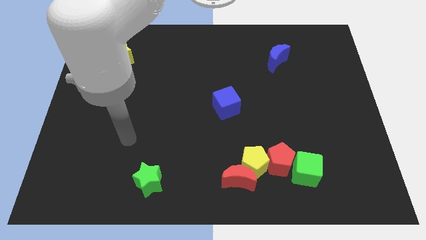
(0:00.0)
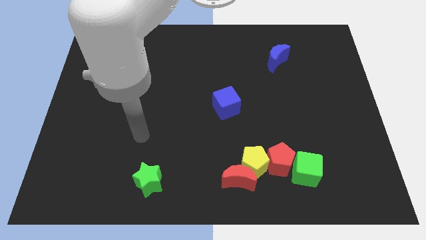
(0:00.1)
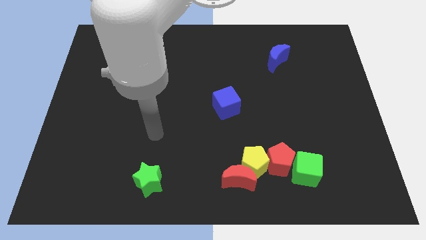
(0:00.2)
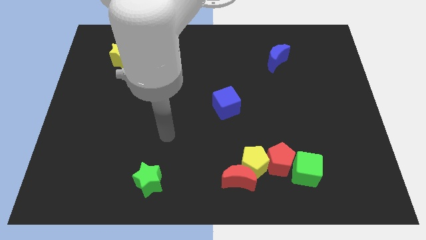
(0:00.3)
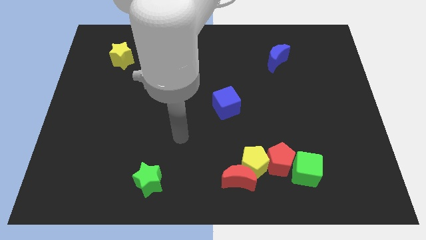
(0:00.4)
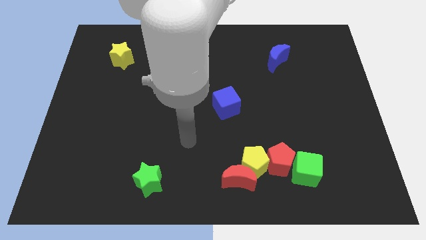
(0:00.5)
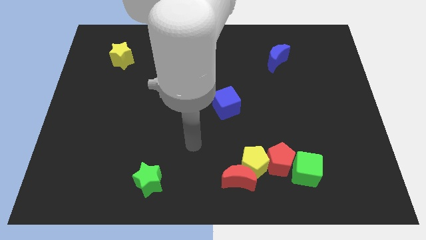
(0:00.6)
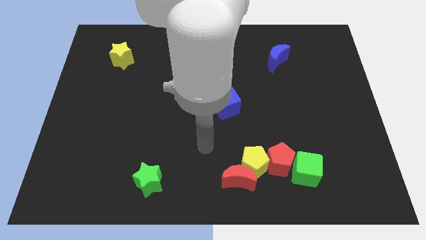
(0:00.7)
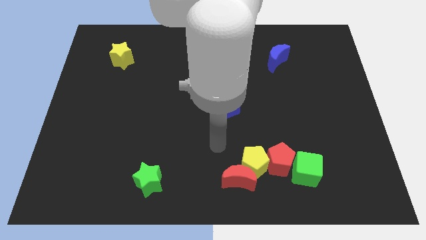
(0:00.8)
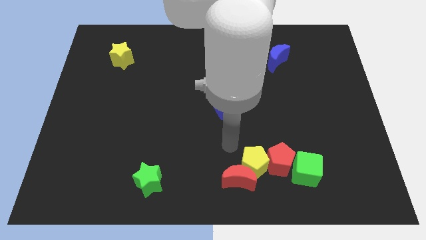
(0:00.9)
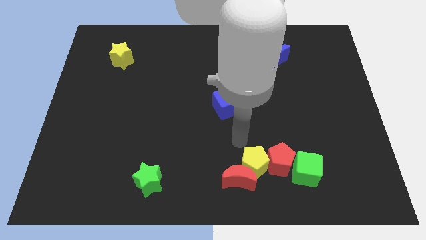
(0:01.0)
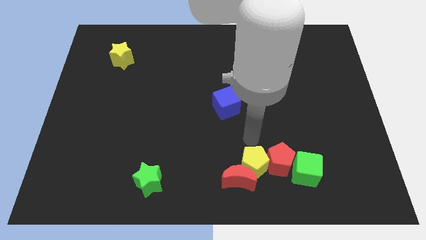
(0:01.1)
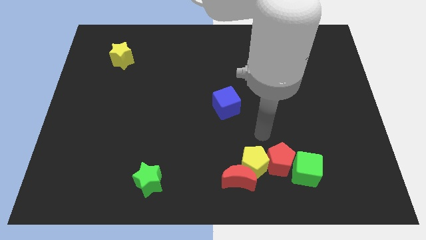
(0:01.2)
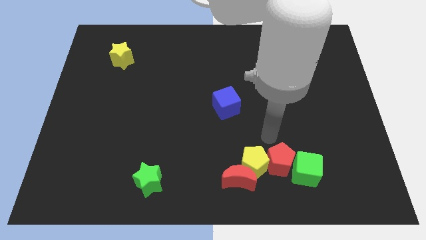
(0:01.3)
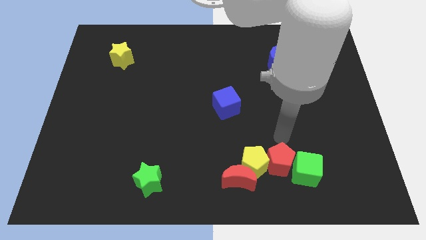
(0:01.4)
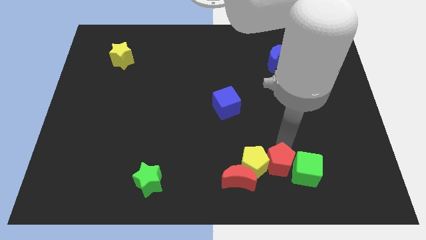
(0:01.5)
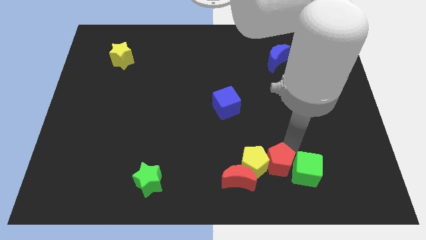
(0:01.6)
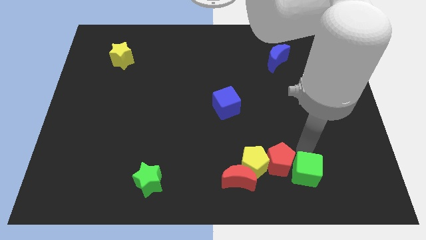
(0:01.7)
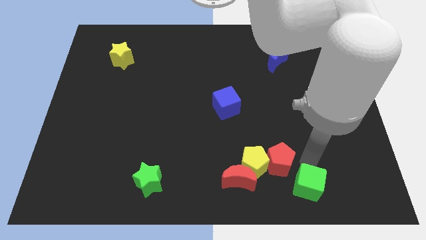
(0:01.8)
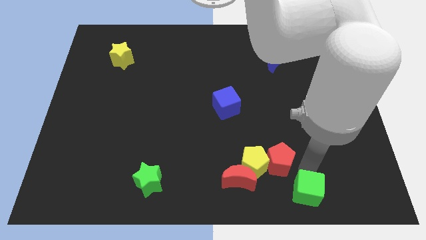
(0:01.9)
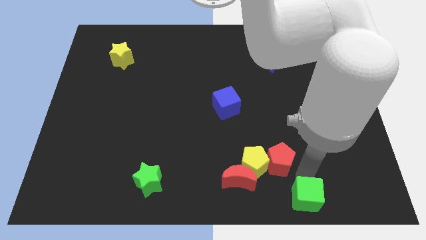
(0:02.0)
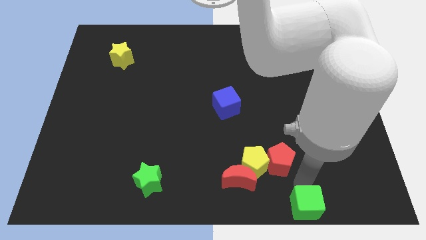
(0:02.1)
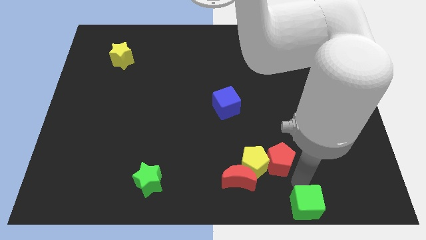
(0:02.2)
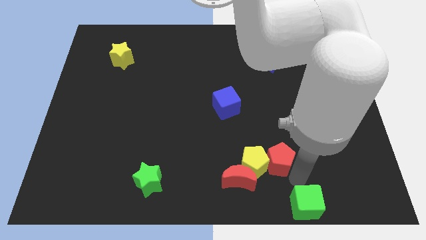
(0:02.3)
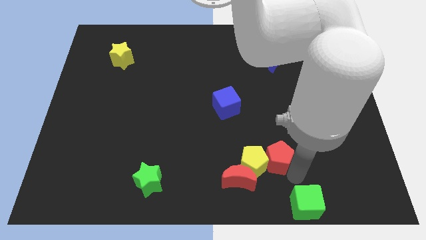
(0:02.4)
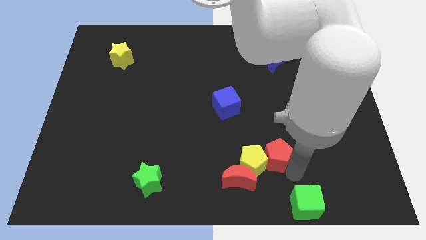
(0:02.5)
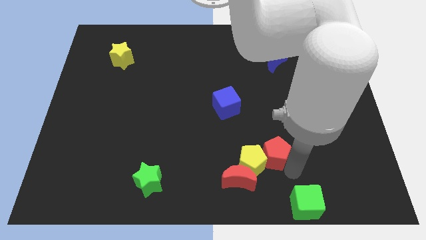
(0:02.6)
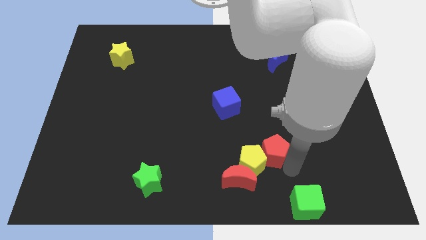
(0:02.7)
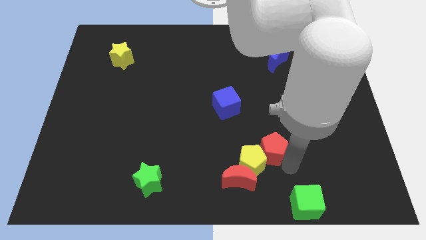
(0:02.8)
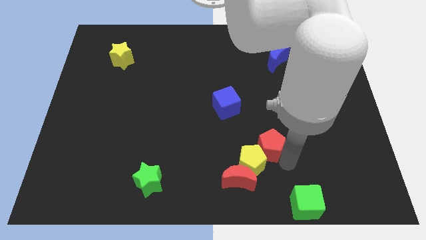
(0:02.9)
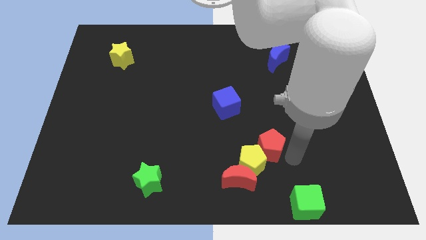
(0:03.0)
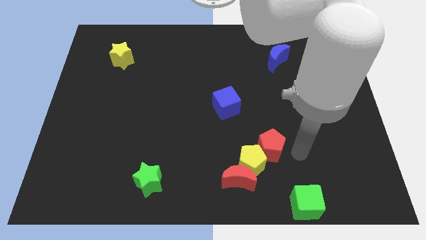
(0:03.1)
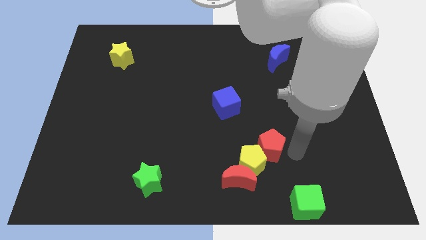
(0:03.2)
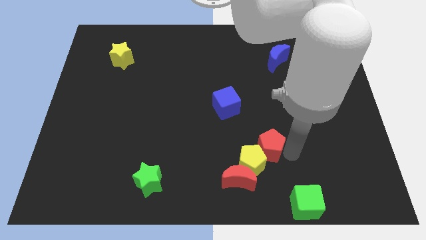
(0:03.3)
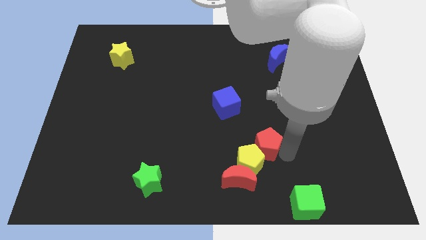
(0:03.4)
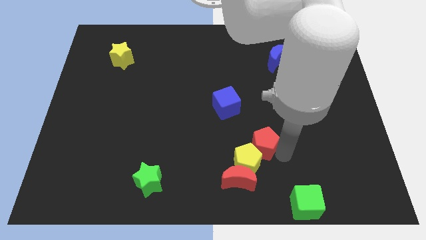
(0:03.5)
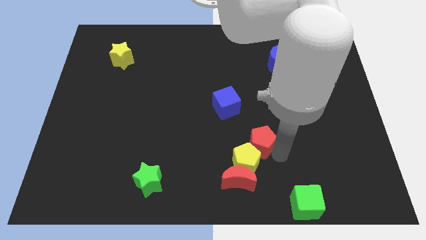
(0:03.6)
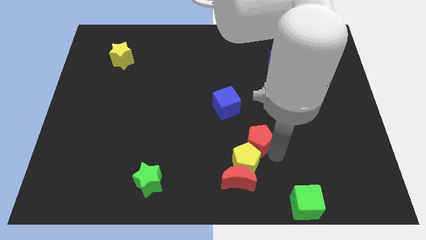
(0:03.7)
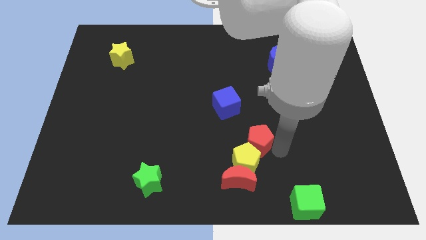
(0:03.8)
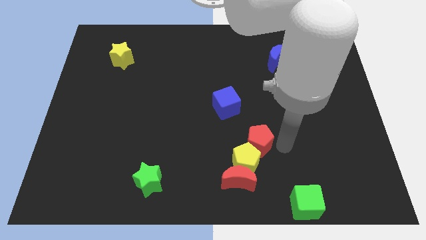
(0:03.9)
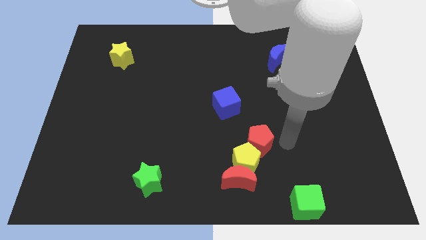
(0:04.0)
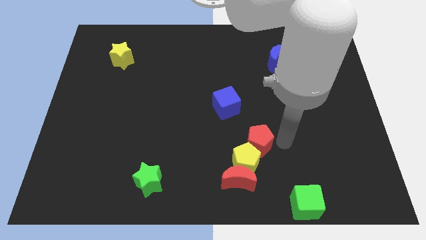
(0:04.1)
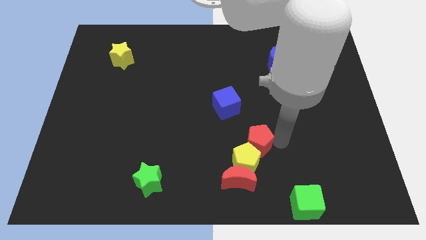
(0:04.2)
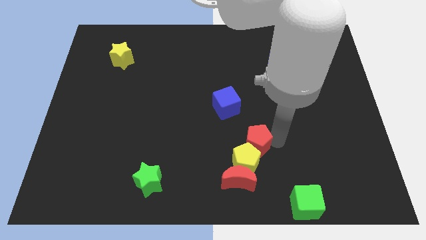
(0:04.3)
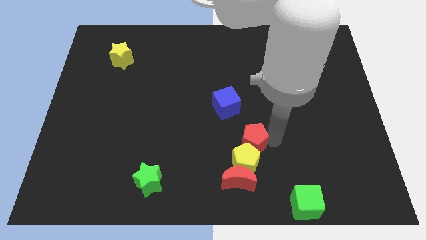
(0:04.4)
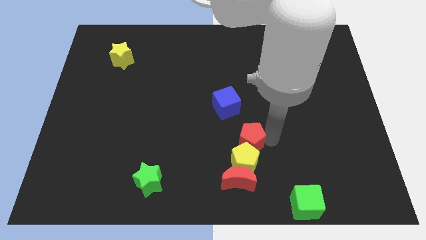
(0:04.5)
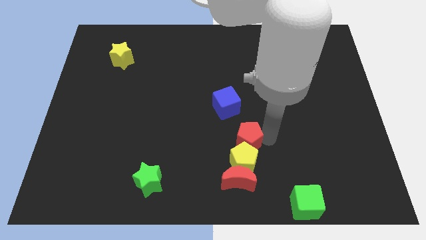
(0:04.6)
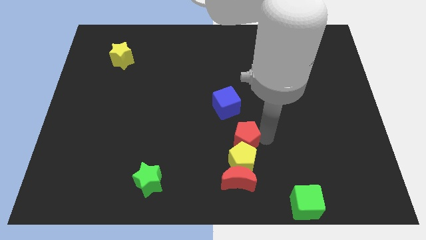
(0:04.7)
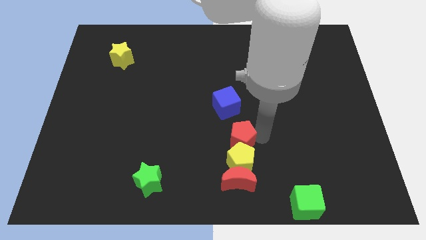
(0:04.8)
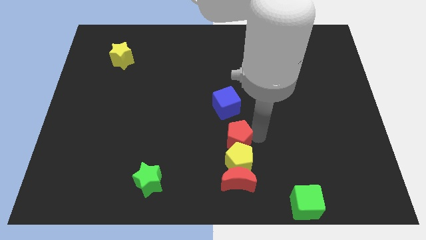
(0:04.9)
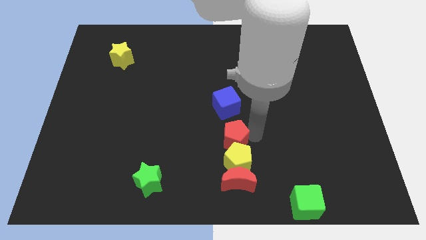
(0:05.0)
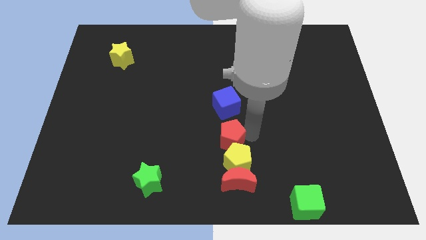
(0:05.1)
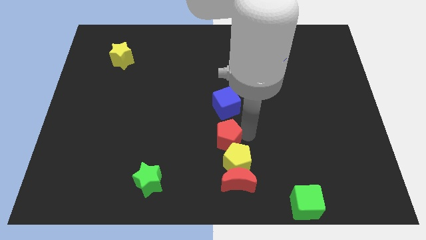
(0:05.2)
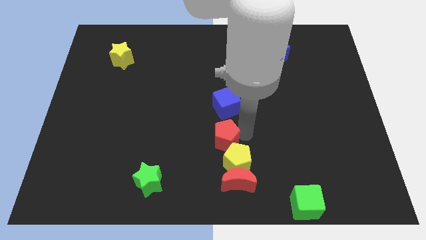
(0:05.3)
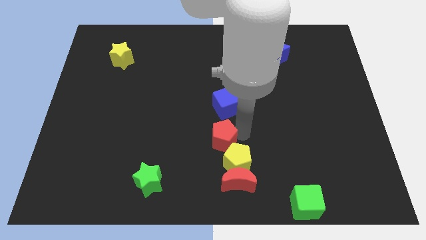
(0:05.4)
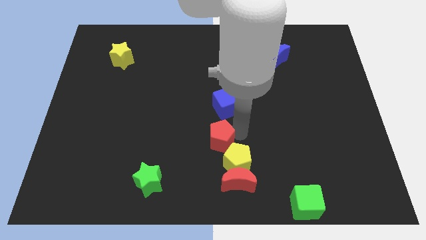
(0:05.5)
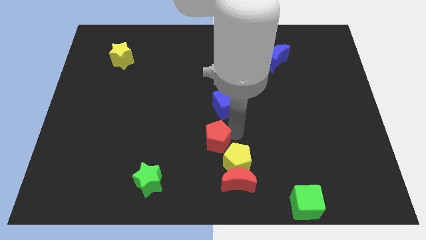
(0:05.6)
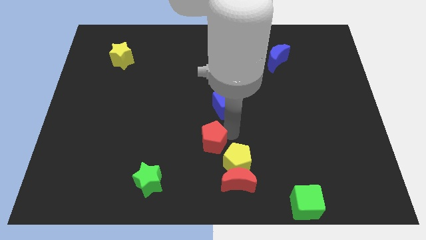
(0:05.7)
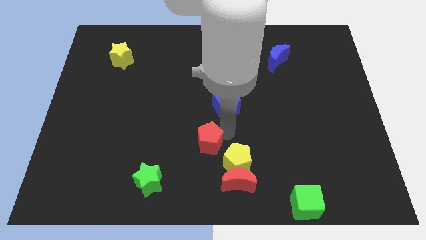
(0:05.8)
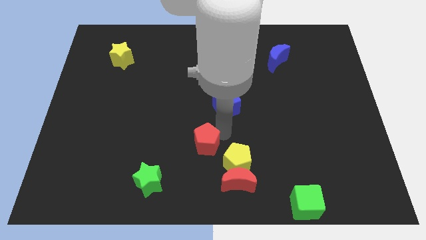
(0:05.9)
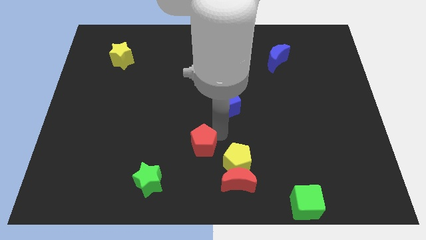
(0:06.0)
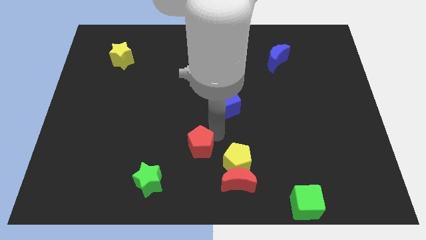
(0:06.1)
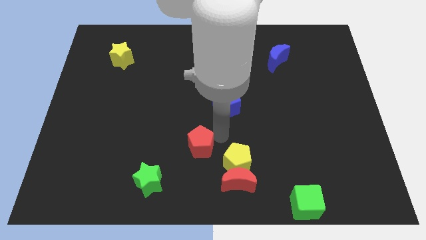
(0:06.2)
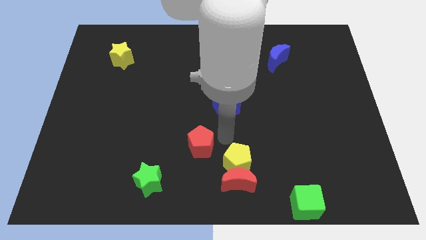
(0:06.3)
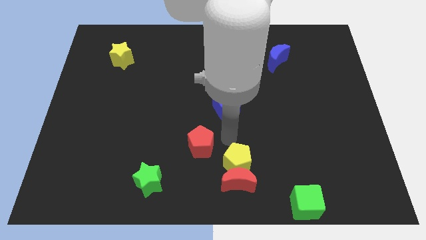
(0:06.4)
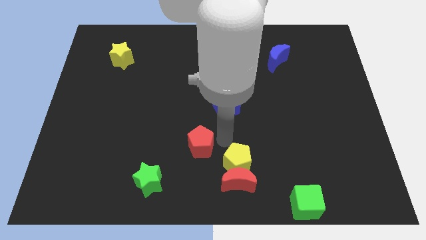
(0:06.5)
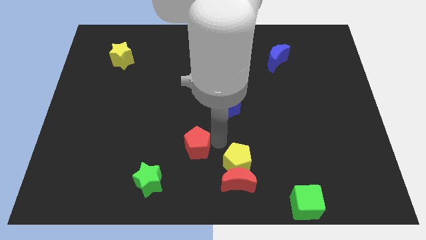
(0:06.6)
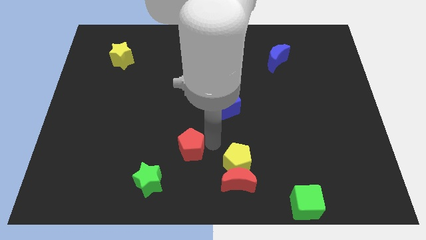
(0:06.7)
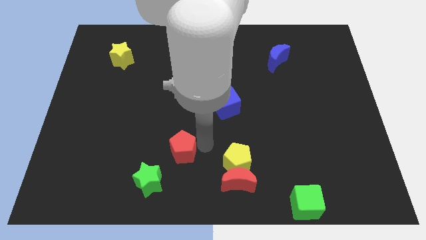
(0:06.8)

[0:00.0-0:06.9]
move the red pentagon left

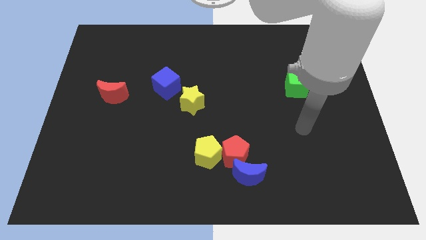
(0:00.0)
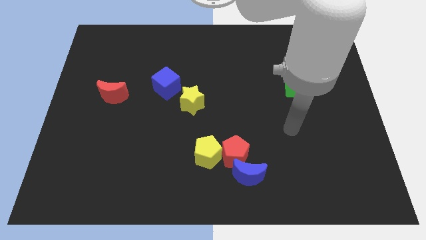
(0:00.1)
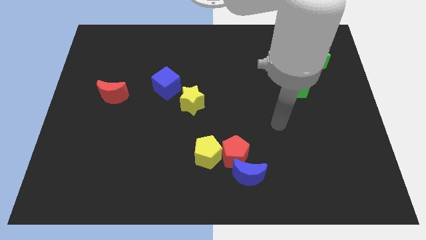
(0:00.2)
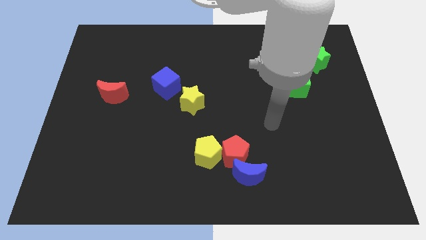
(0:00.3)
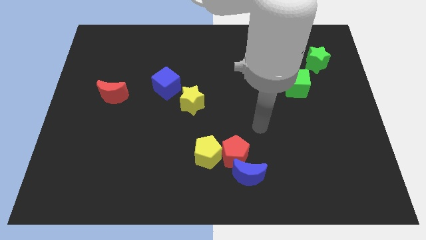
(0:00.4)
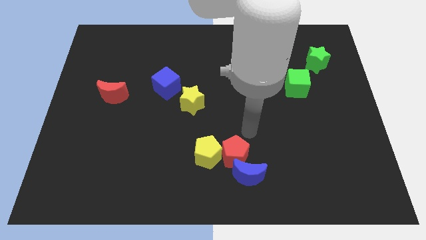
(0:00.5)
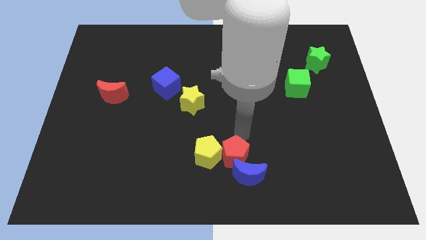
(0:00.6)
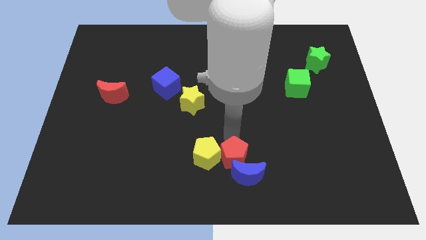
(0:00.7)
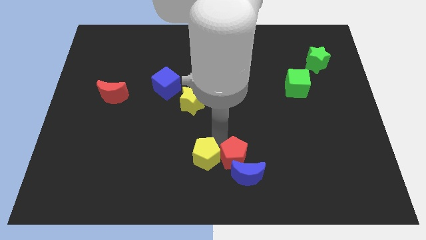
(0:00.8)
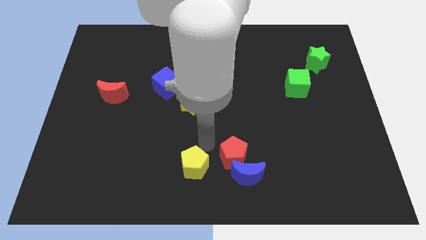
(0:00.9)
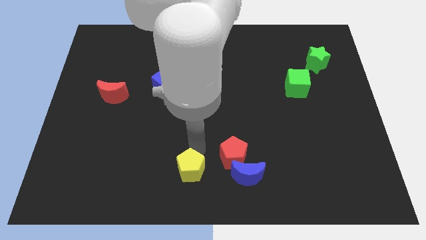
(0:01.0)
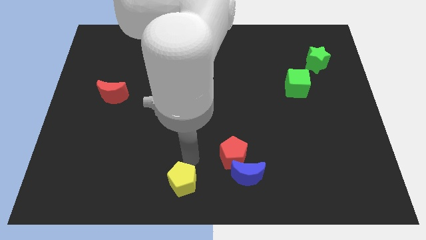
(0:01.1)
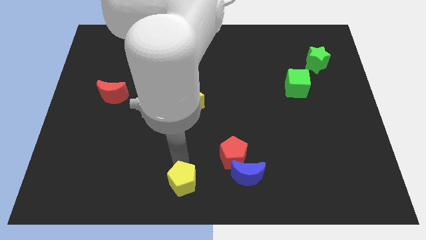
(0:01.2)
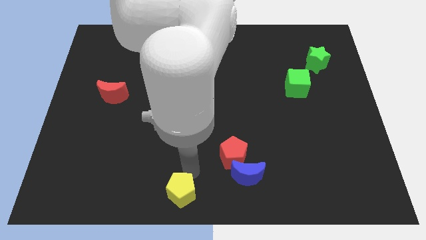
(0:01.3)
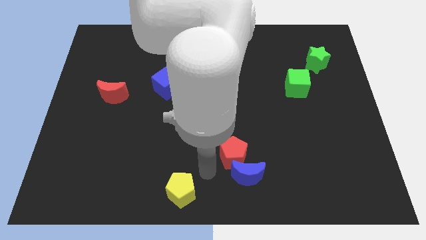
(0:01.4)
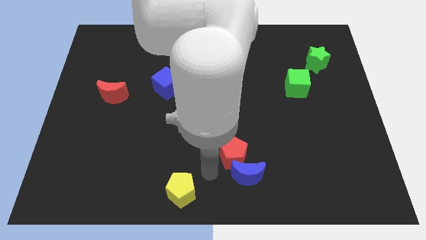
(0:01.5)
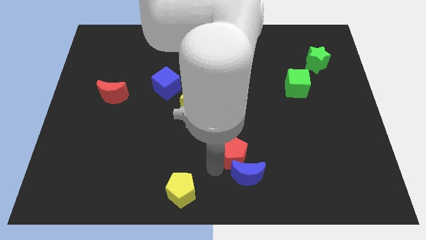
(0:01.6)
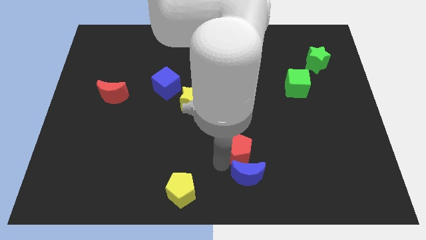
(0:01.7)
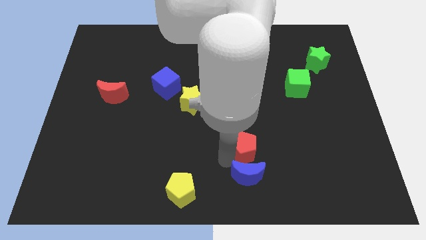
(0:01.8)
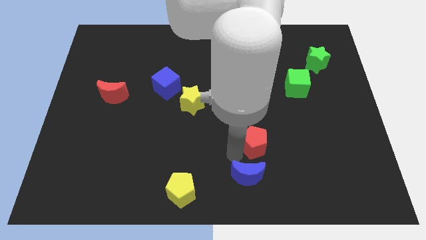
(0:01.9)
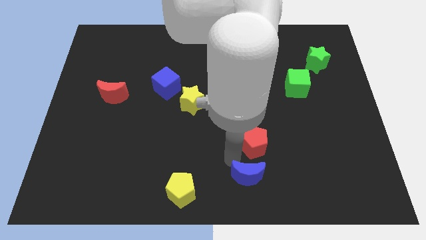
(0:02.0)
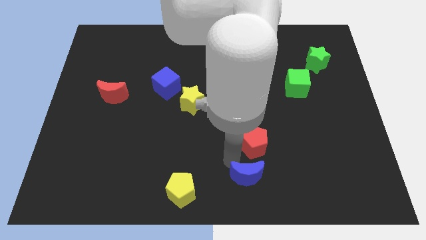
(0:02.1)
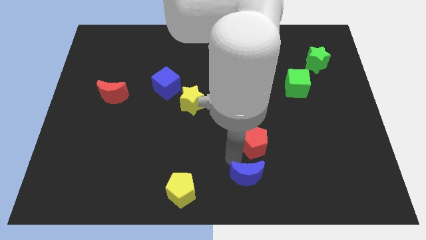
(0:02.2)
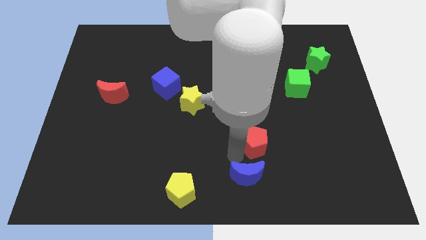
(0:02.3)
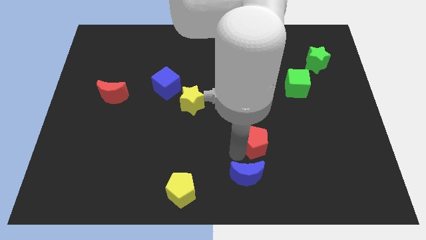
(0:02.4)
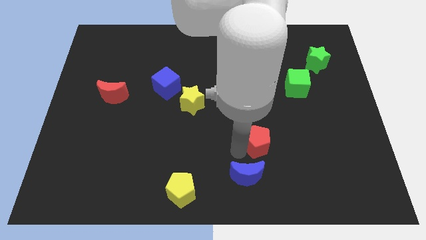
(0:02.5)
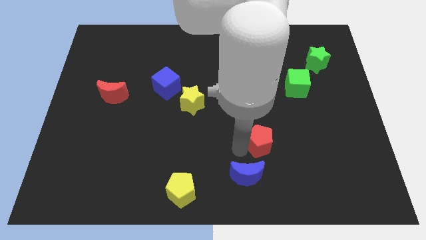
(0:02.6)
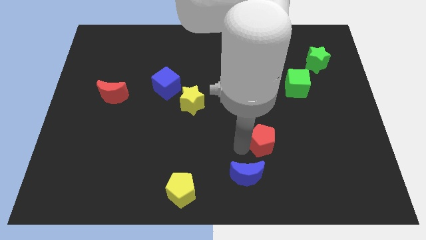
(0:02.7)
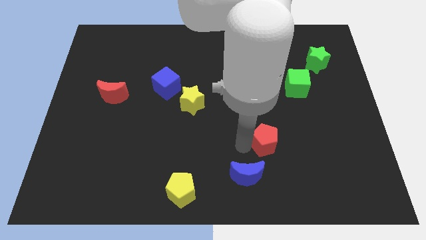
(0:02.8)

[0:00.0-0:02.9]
move the red pentagon a little bit up and to the right diagonally
